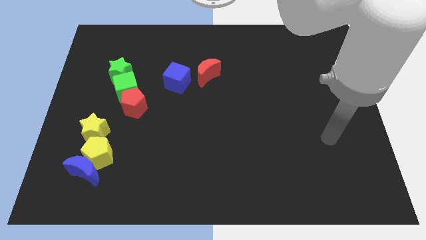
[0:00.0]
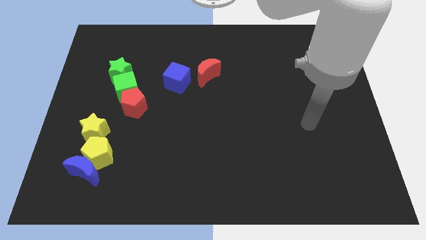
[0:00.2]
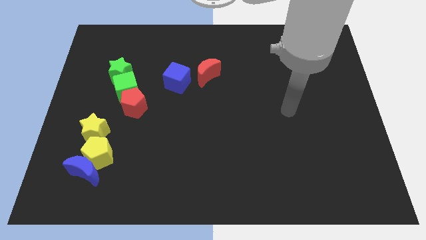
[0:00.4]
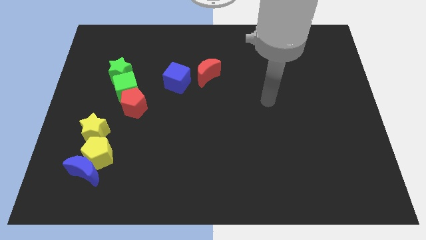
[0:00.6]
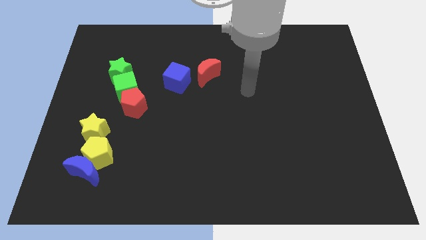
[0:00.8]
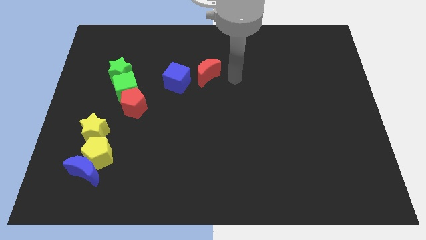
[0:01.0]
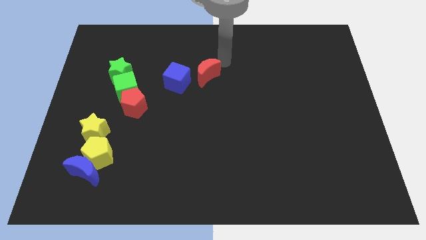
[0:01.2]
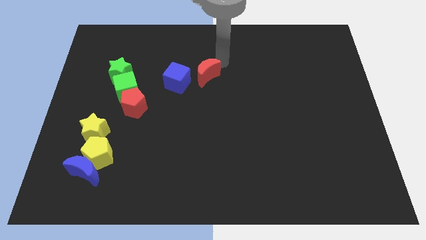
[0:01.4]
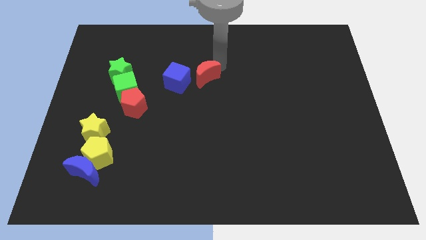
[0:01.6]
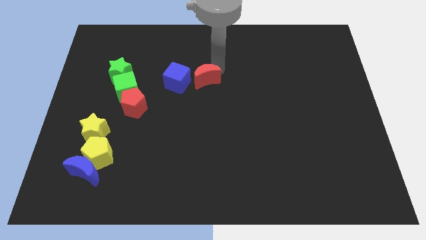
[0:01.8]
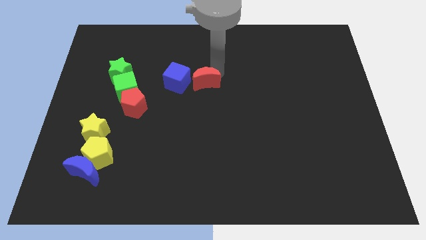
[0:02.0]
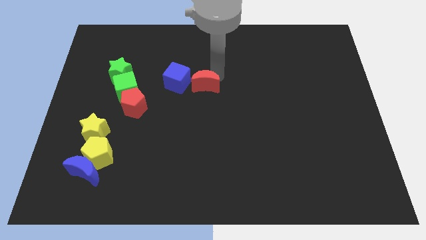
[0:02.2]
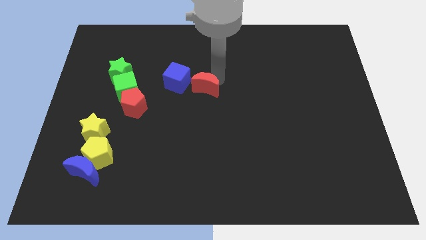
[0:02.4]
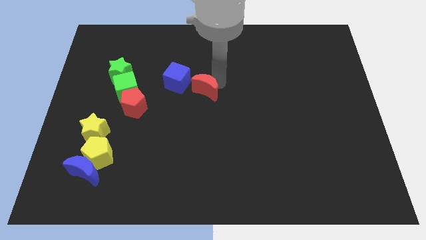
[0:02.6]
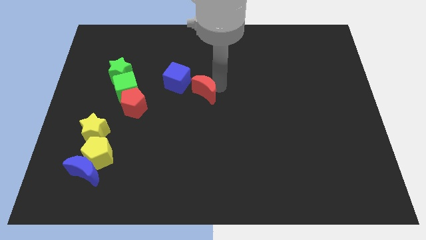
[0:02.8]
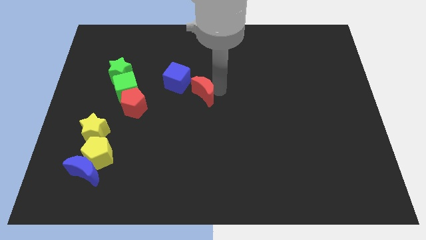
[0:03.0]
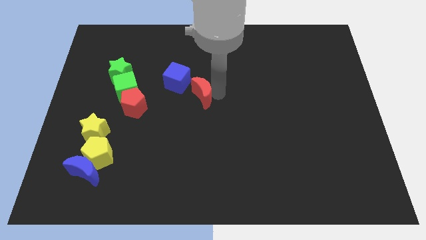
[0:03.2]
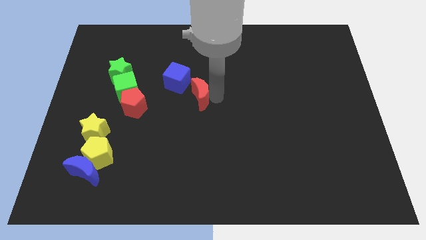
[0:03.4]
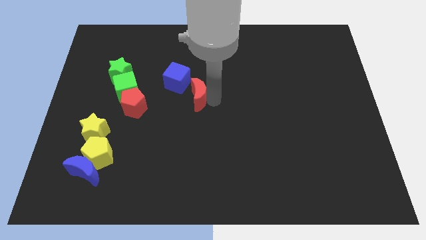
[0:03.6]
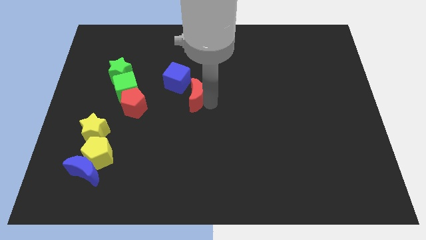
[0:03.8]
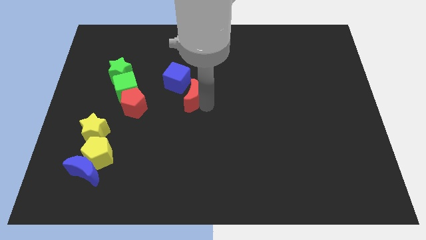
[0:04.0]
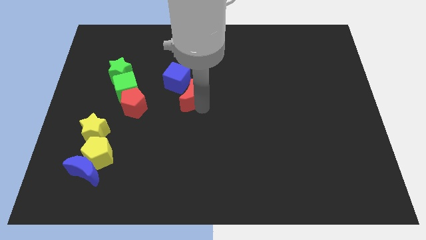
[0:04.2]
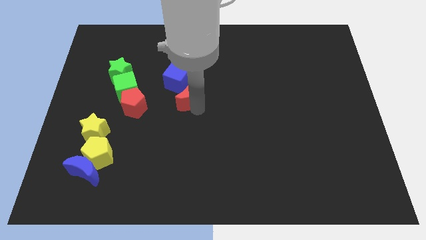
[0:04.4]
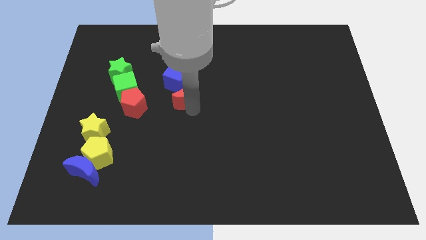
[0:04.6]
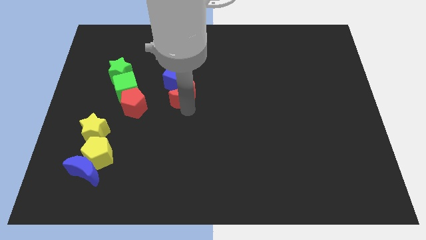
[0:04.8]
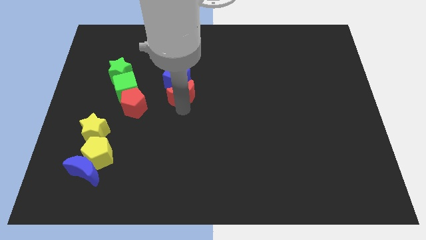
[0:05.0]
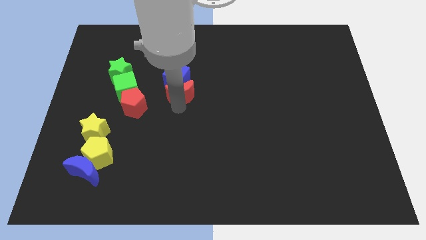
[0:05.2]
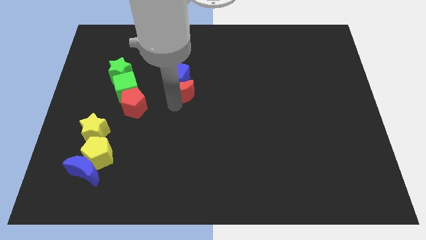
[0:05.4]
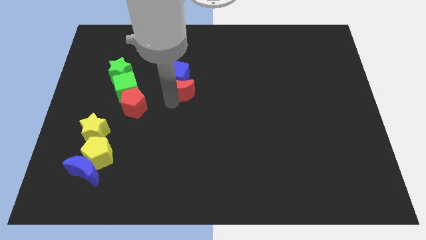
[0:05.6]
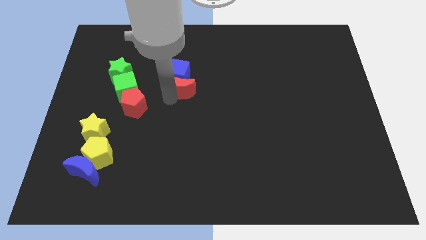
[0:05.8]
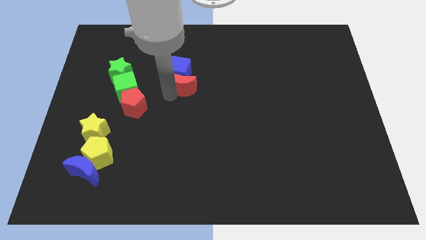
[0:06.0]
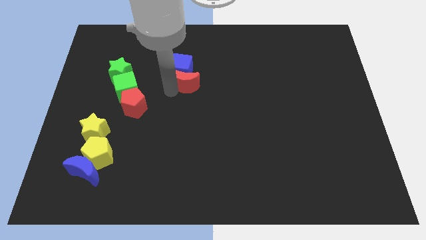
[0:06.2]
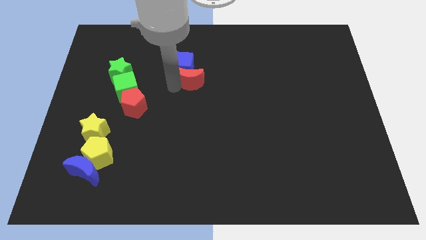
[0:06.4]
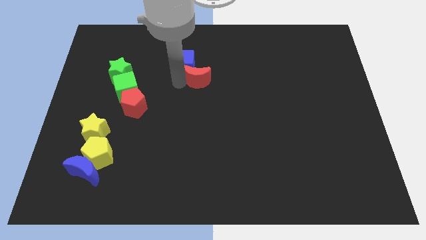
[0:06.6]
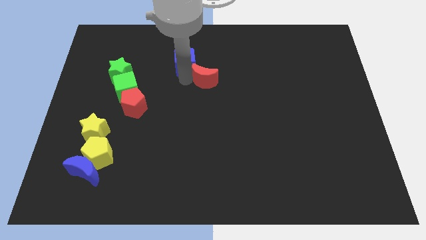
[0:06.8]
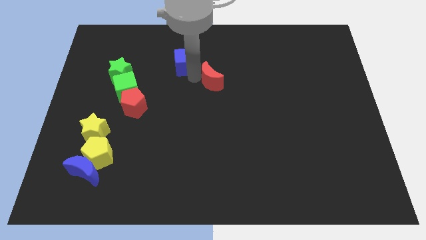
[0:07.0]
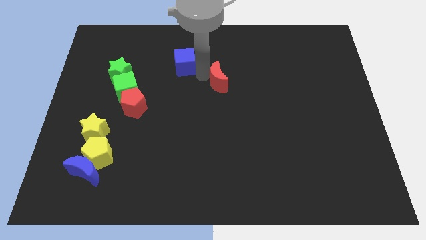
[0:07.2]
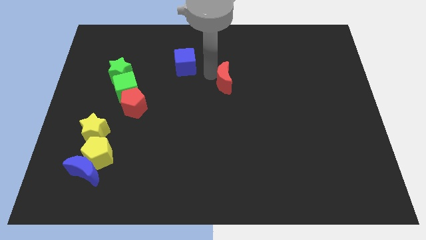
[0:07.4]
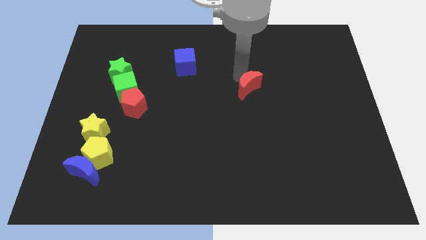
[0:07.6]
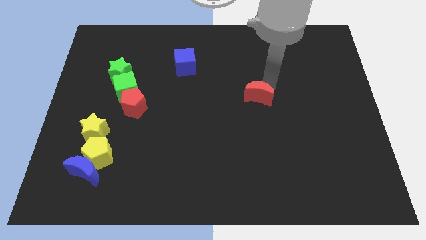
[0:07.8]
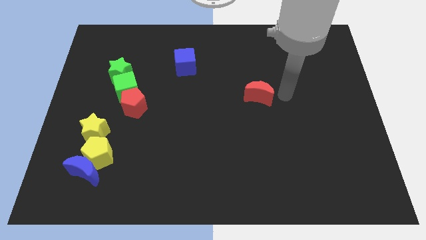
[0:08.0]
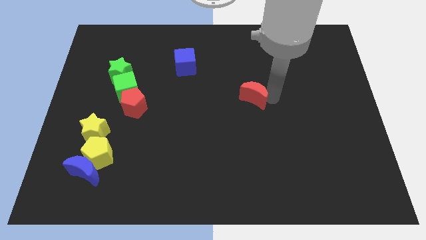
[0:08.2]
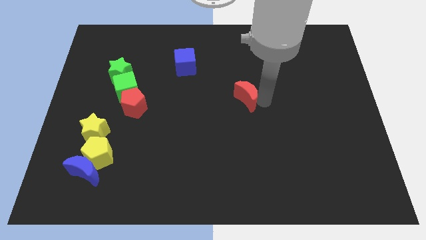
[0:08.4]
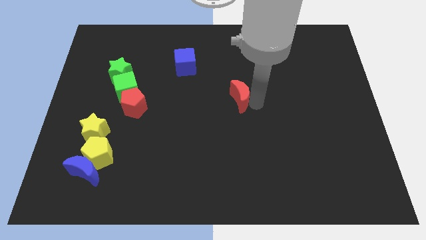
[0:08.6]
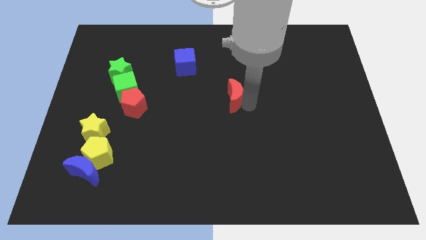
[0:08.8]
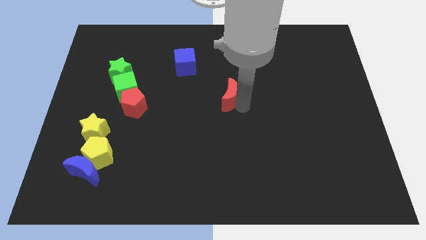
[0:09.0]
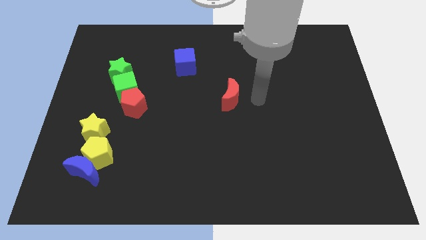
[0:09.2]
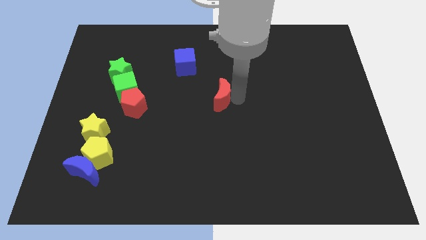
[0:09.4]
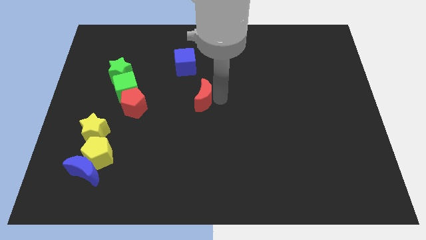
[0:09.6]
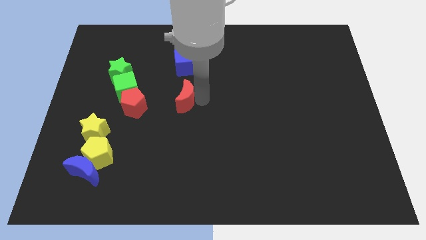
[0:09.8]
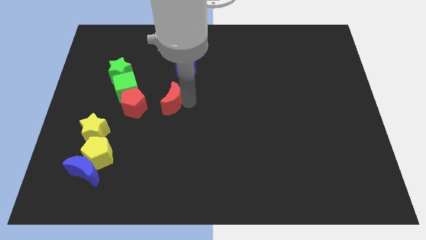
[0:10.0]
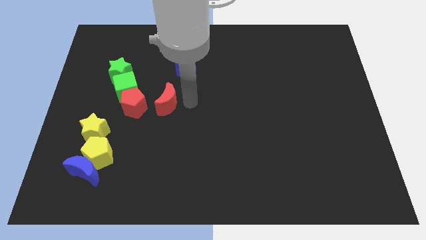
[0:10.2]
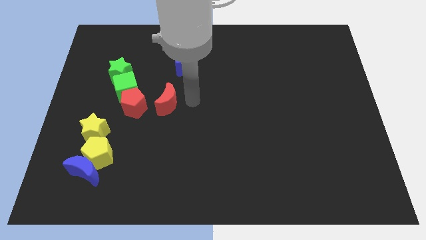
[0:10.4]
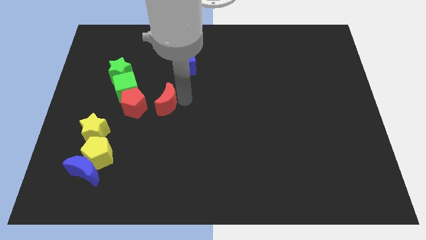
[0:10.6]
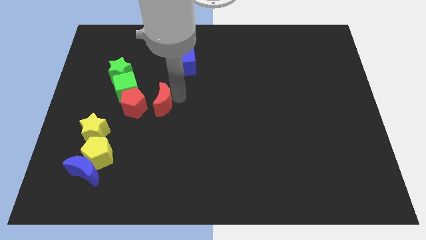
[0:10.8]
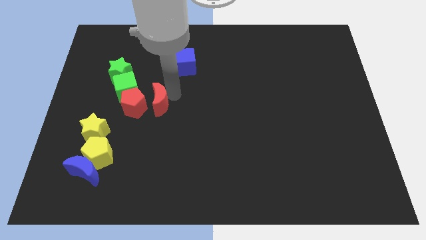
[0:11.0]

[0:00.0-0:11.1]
slide the red moon to the red pentagon

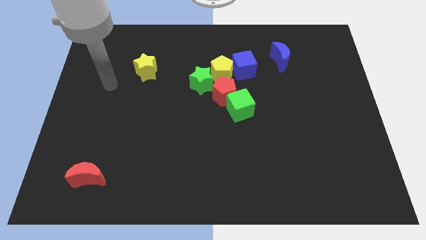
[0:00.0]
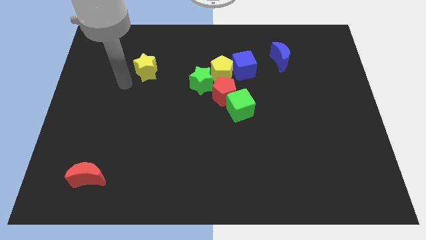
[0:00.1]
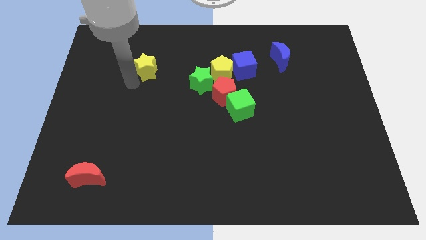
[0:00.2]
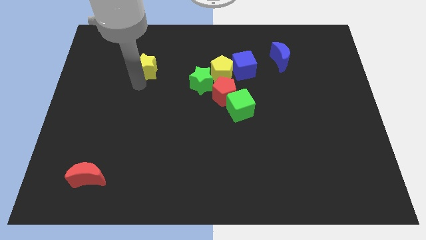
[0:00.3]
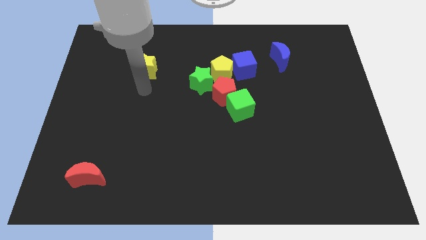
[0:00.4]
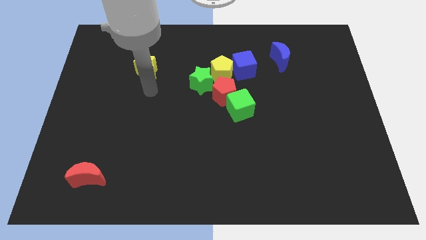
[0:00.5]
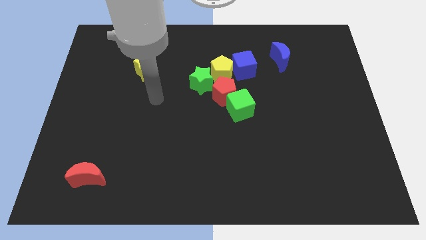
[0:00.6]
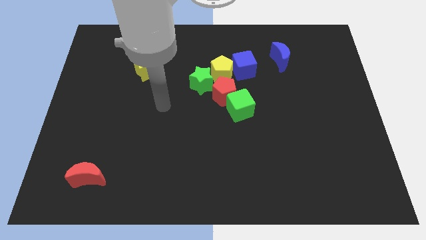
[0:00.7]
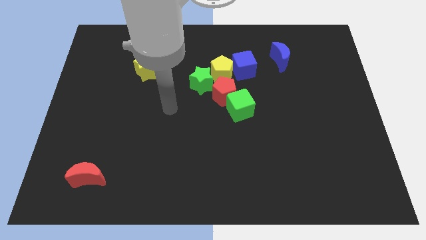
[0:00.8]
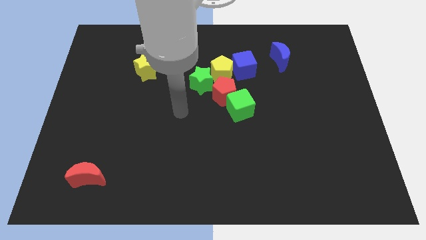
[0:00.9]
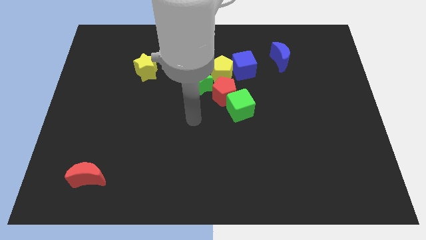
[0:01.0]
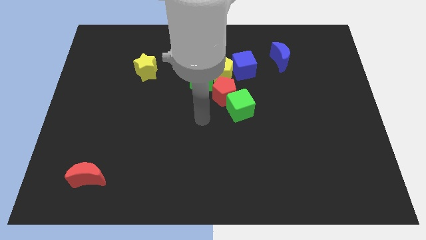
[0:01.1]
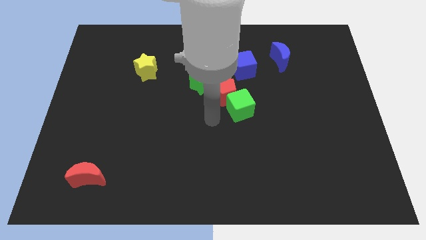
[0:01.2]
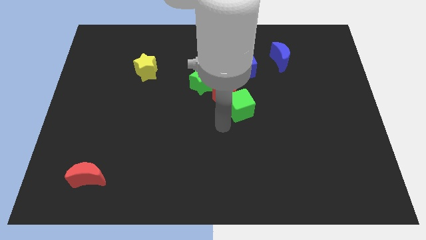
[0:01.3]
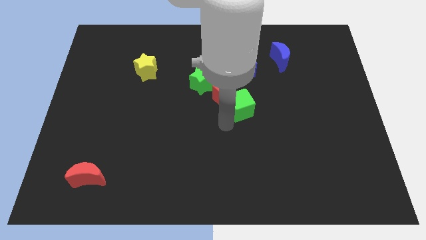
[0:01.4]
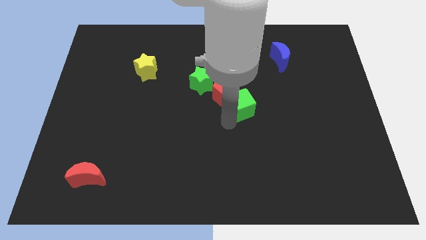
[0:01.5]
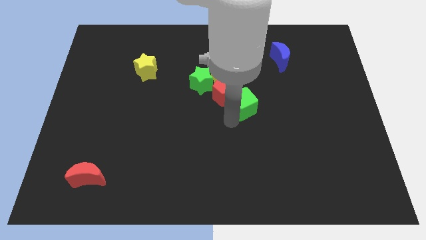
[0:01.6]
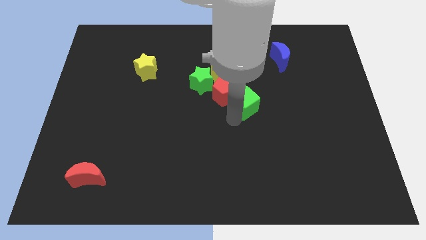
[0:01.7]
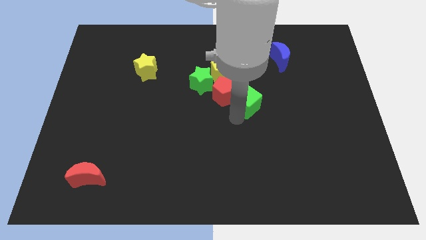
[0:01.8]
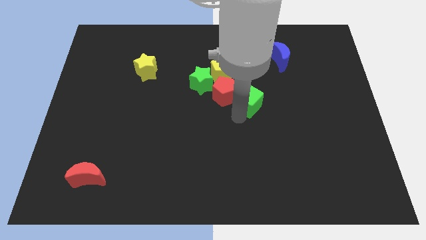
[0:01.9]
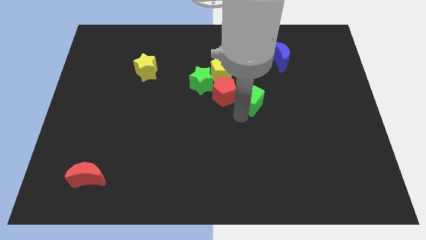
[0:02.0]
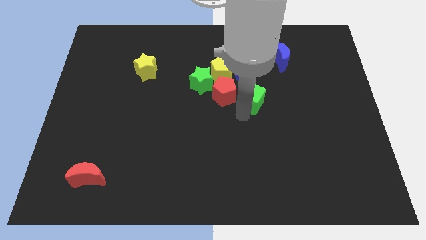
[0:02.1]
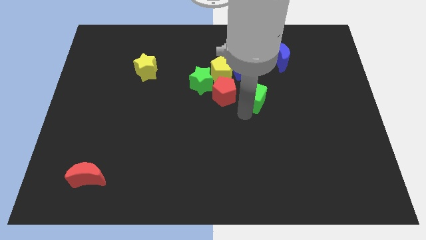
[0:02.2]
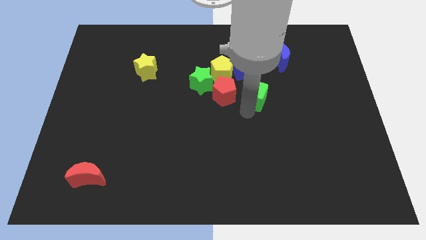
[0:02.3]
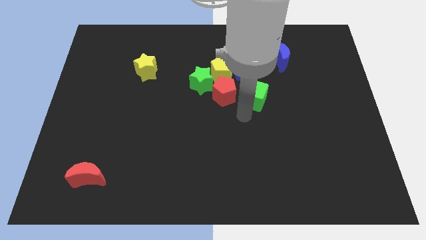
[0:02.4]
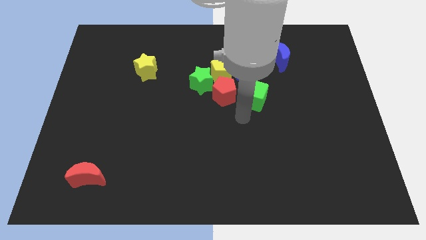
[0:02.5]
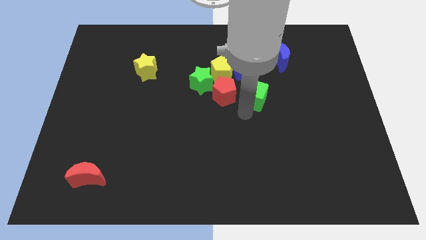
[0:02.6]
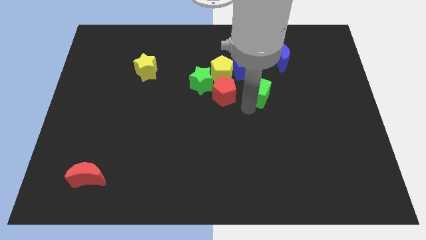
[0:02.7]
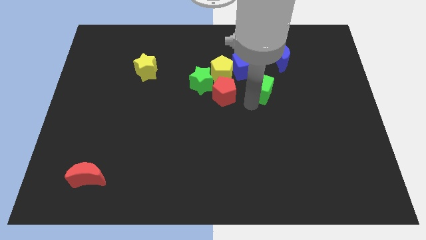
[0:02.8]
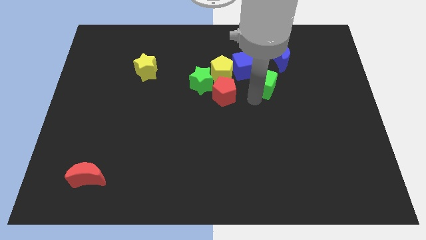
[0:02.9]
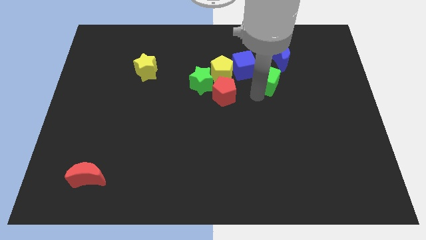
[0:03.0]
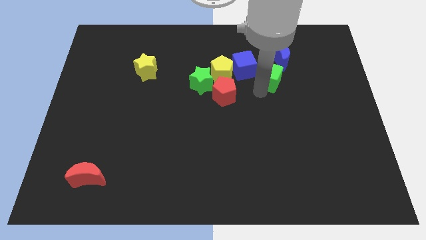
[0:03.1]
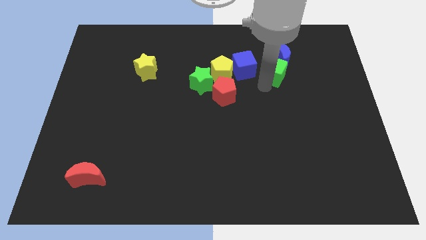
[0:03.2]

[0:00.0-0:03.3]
put the green cube close to the blue moon
